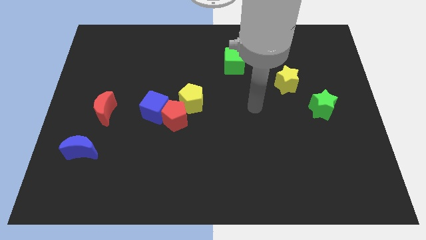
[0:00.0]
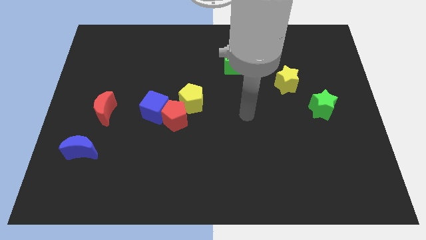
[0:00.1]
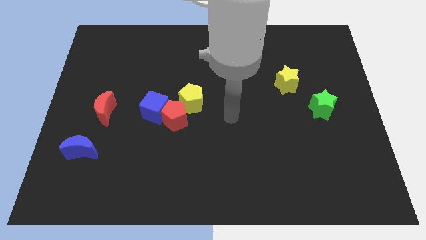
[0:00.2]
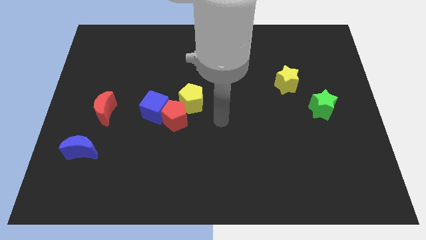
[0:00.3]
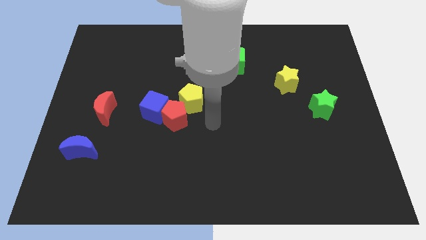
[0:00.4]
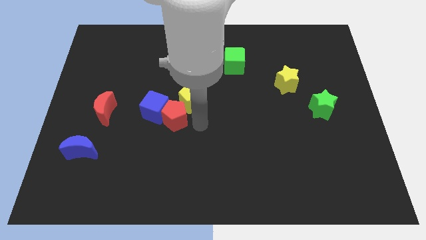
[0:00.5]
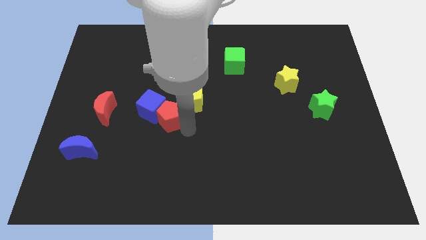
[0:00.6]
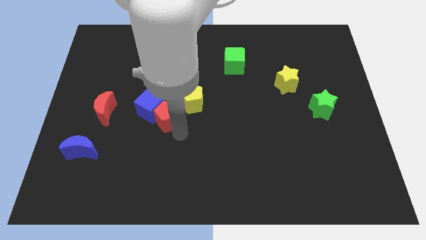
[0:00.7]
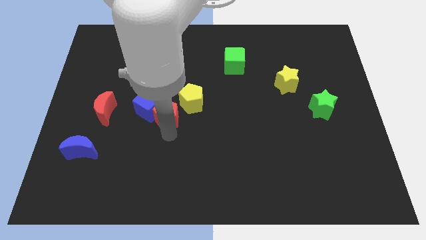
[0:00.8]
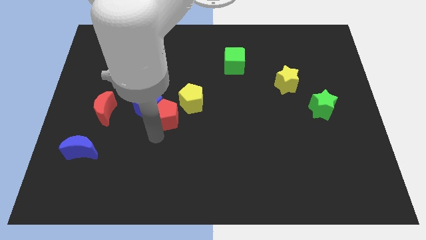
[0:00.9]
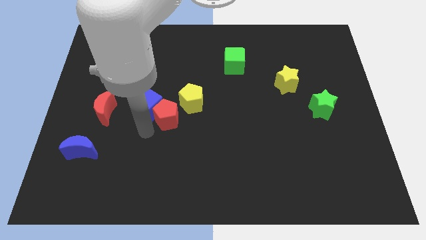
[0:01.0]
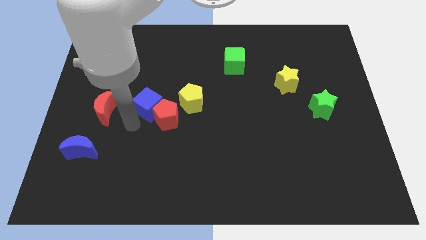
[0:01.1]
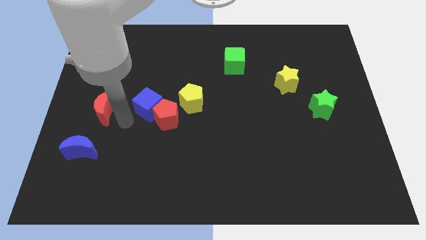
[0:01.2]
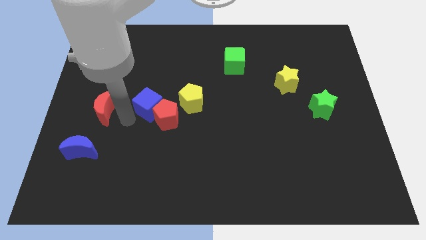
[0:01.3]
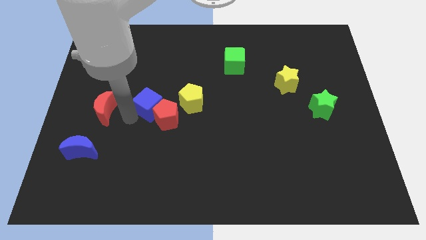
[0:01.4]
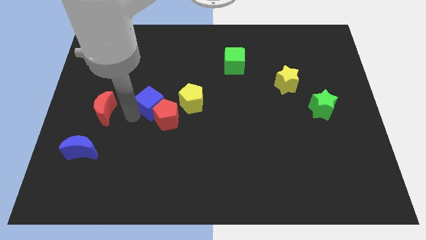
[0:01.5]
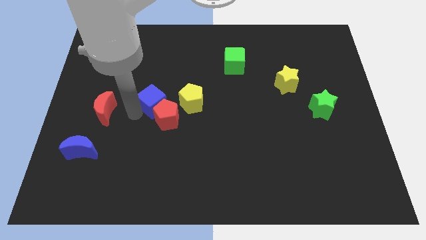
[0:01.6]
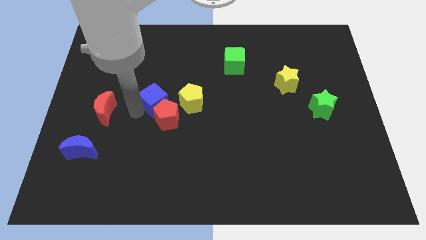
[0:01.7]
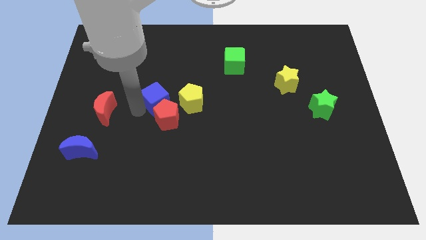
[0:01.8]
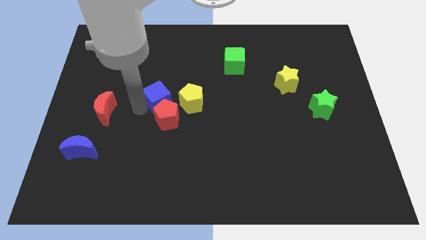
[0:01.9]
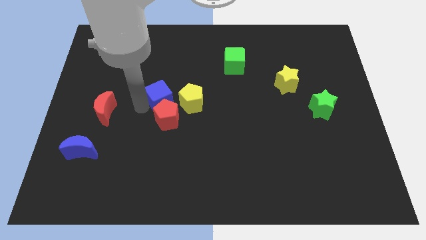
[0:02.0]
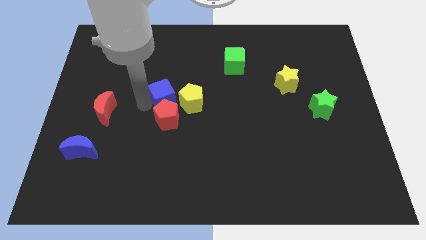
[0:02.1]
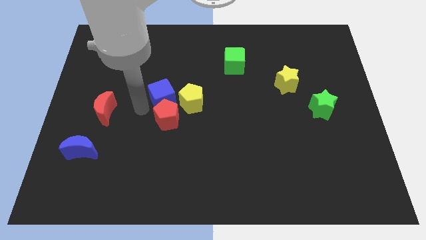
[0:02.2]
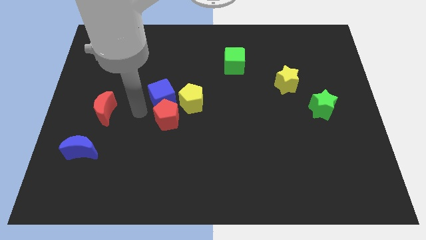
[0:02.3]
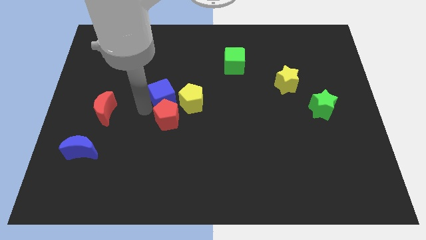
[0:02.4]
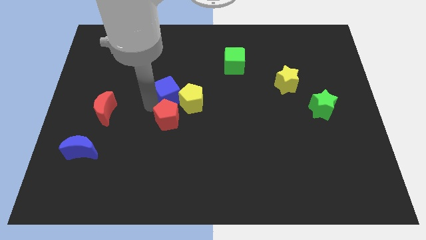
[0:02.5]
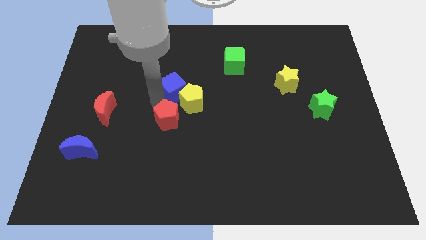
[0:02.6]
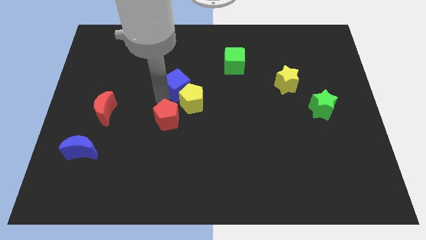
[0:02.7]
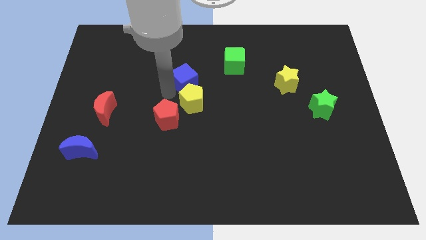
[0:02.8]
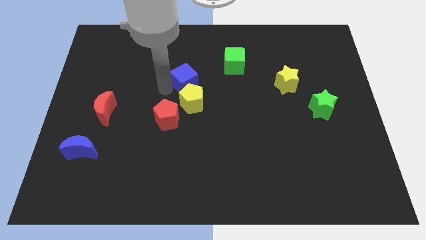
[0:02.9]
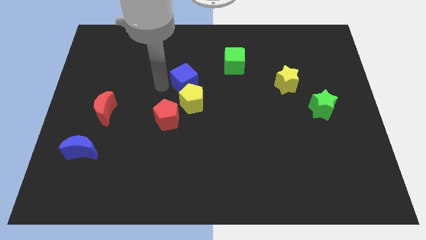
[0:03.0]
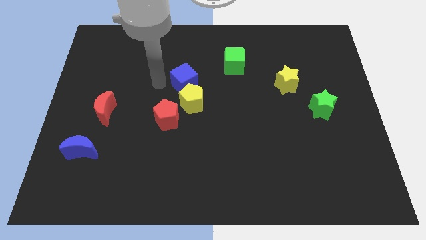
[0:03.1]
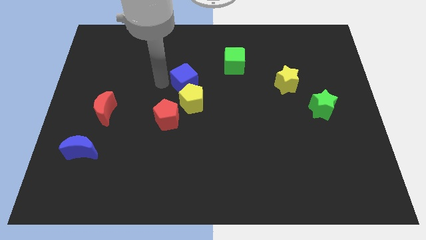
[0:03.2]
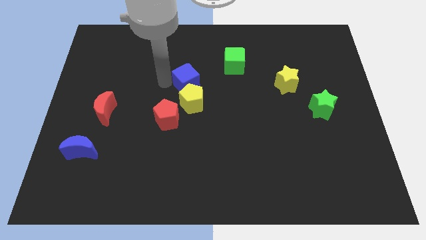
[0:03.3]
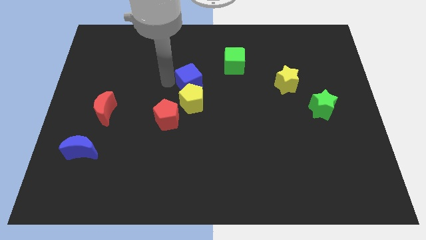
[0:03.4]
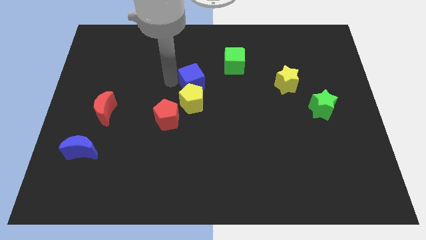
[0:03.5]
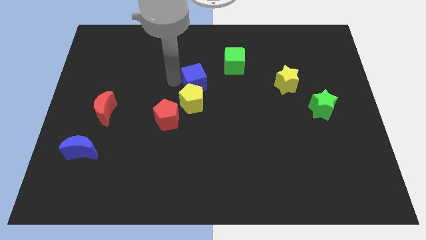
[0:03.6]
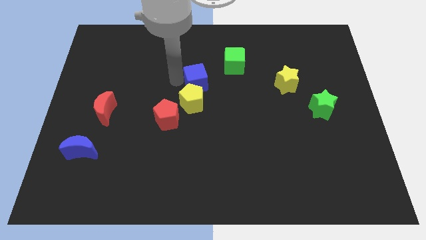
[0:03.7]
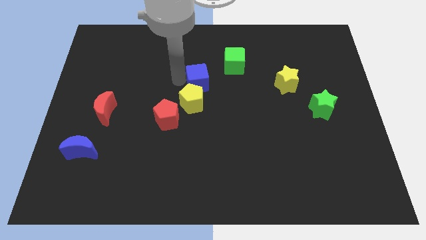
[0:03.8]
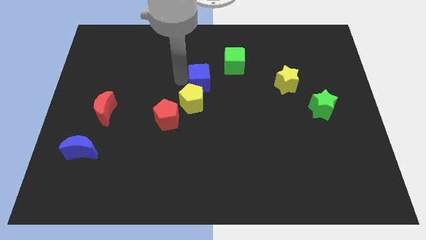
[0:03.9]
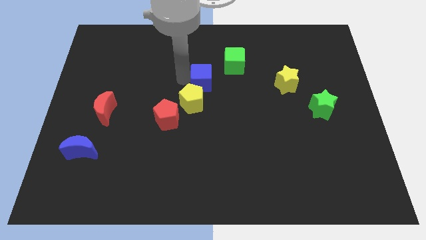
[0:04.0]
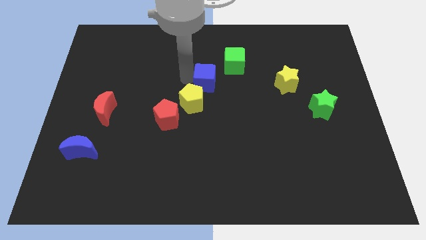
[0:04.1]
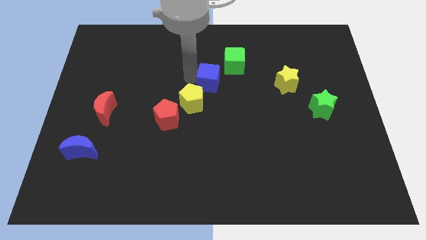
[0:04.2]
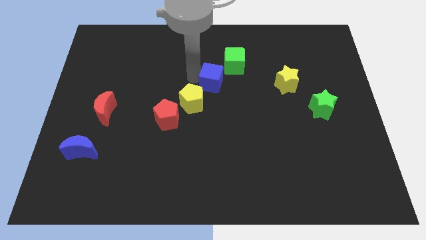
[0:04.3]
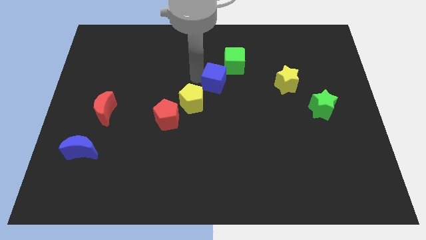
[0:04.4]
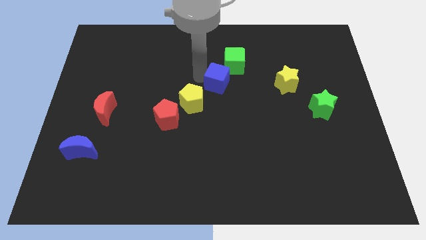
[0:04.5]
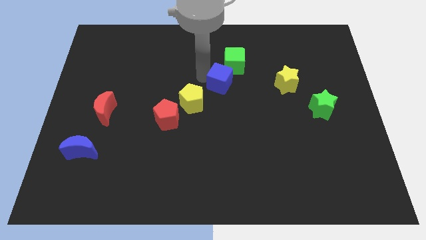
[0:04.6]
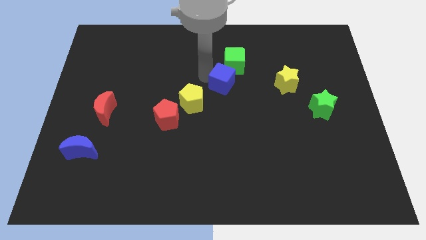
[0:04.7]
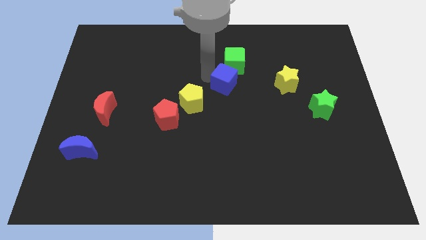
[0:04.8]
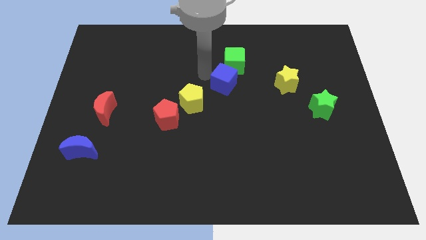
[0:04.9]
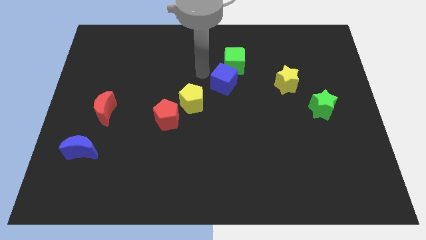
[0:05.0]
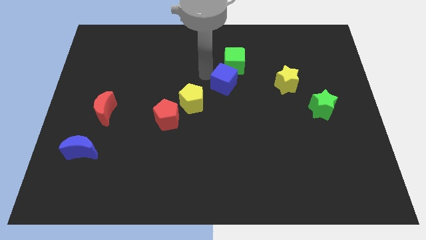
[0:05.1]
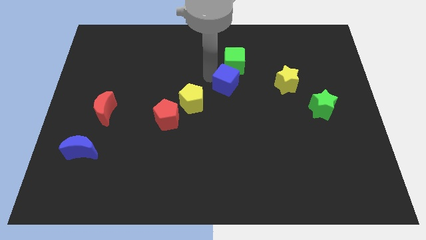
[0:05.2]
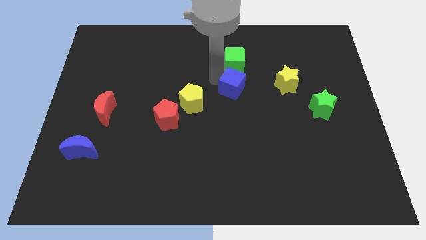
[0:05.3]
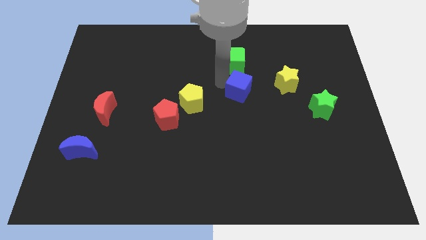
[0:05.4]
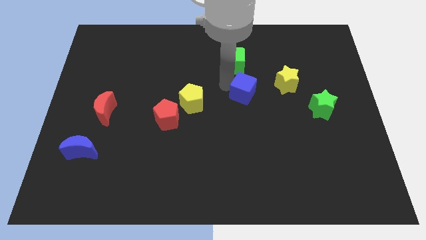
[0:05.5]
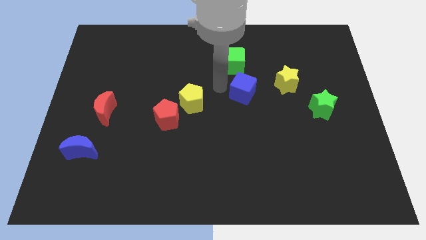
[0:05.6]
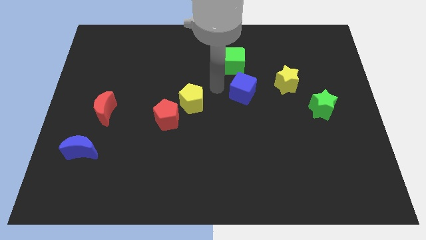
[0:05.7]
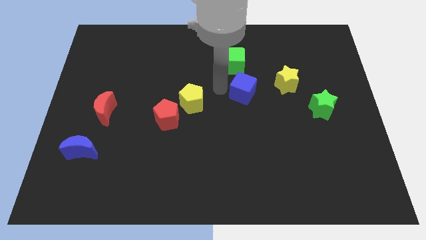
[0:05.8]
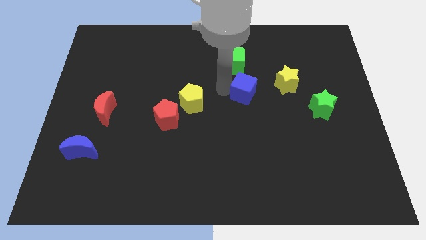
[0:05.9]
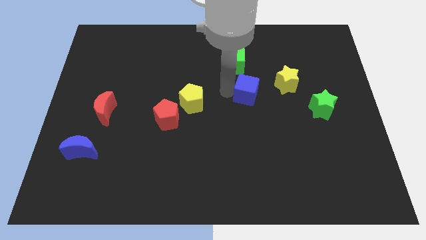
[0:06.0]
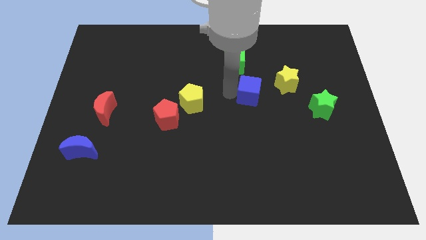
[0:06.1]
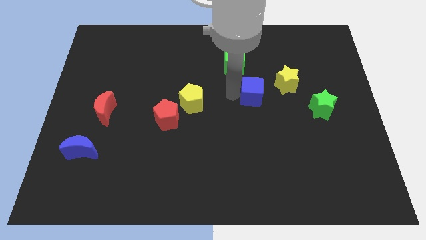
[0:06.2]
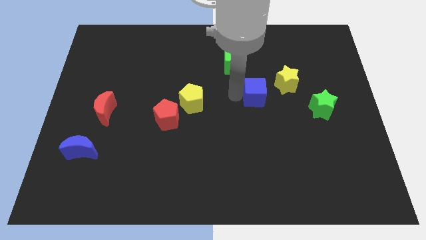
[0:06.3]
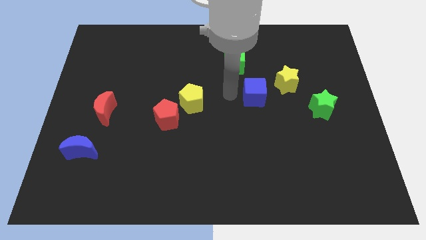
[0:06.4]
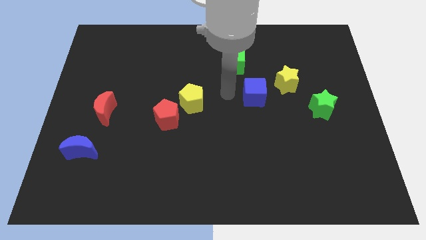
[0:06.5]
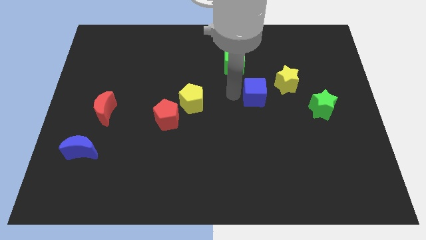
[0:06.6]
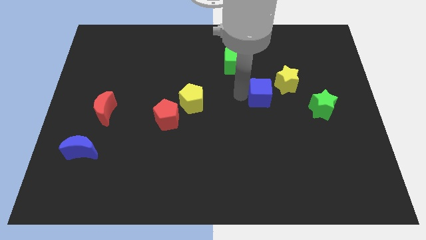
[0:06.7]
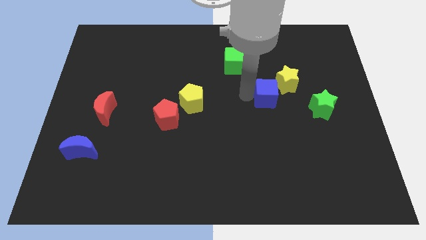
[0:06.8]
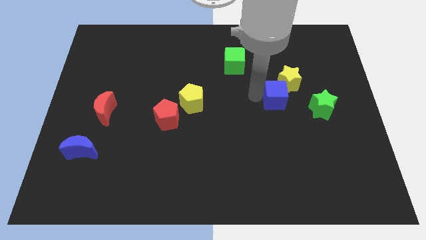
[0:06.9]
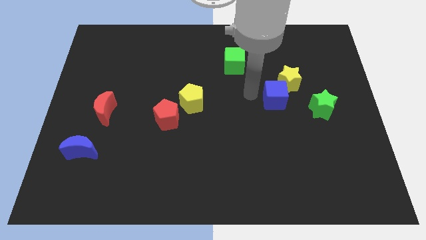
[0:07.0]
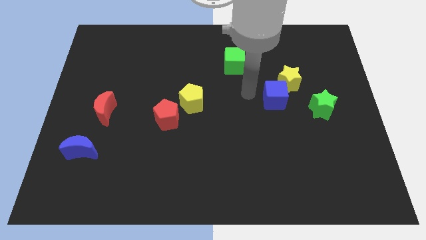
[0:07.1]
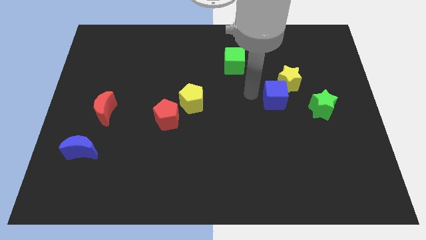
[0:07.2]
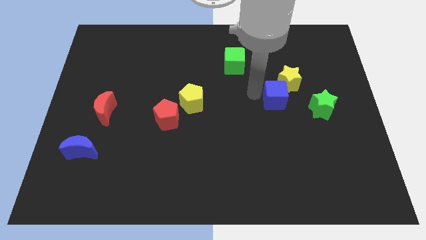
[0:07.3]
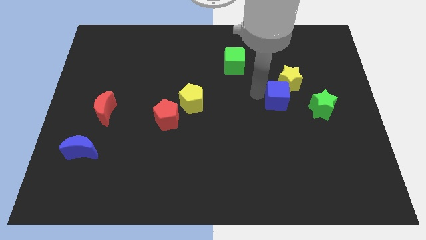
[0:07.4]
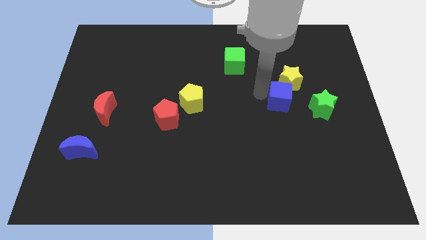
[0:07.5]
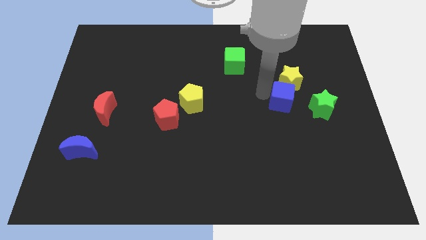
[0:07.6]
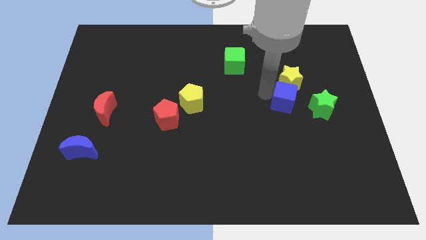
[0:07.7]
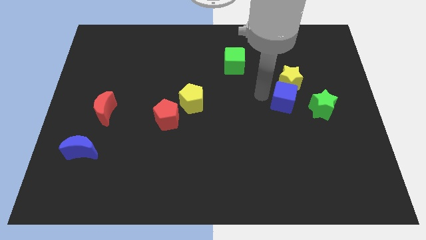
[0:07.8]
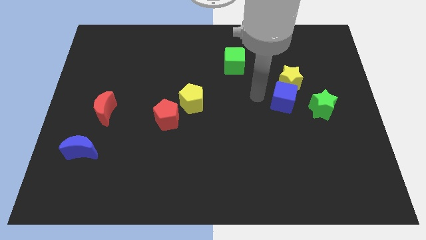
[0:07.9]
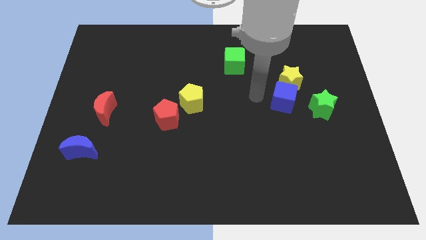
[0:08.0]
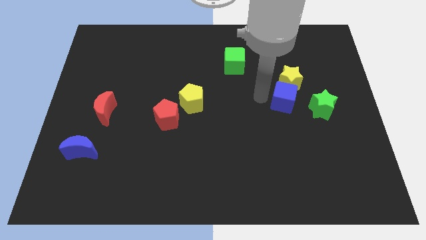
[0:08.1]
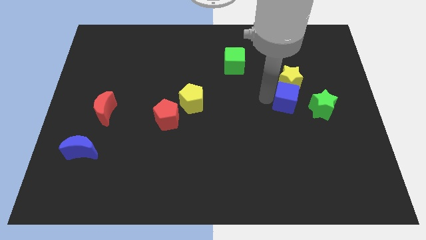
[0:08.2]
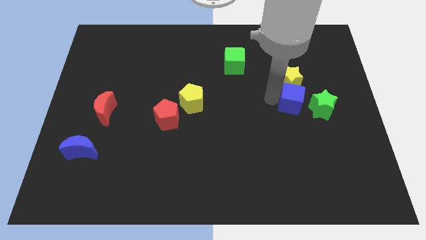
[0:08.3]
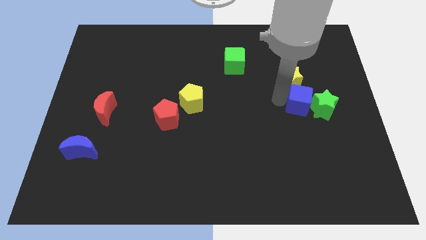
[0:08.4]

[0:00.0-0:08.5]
put the blue cube to the green star
